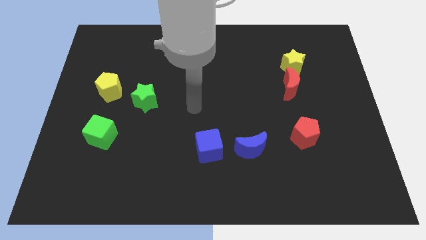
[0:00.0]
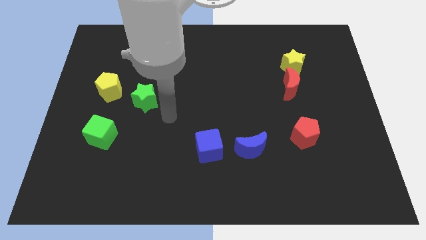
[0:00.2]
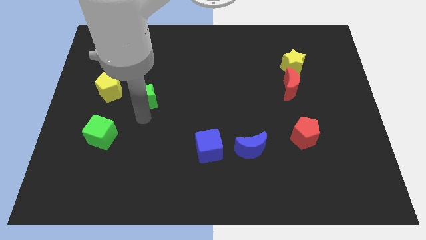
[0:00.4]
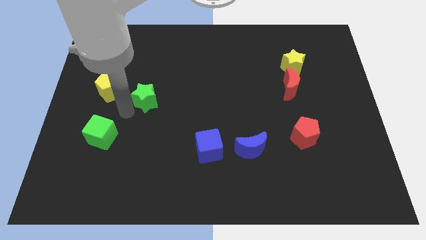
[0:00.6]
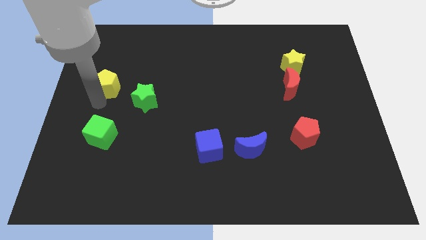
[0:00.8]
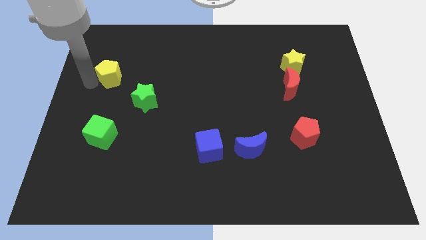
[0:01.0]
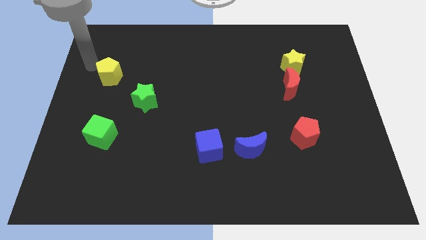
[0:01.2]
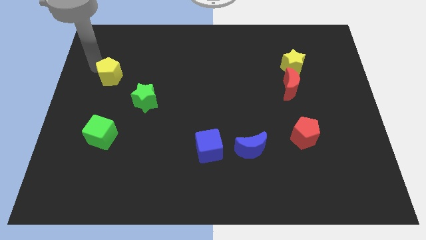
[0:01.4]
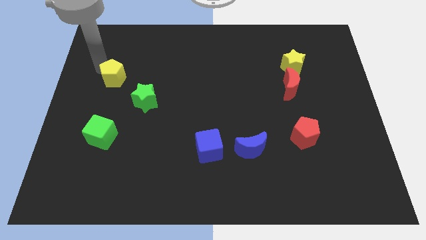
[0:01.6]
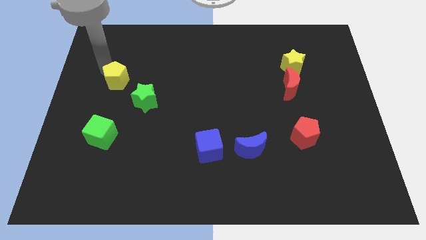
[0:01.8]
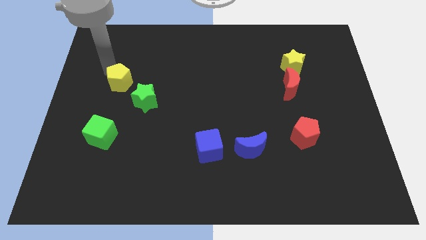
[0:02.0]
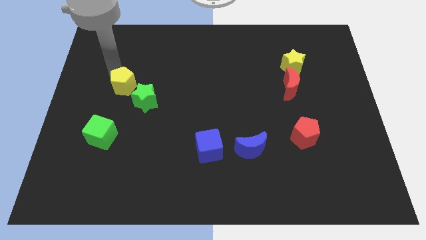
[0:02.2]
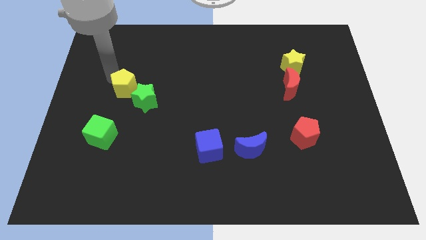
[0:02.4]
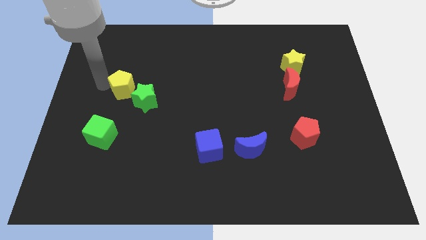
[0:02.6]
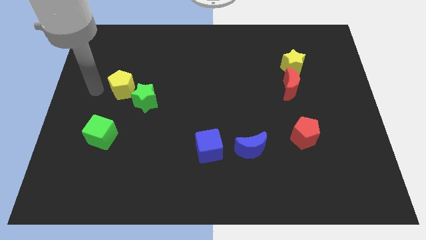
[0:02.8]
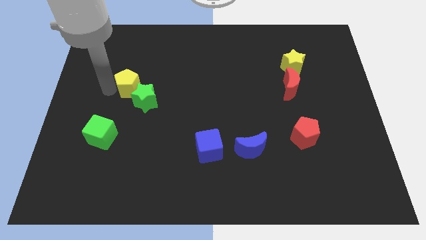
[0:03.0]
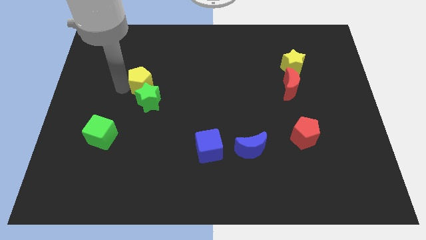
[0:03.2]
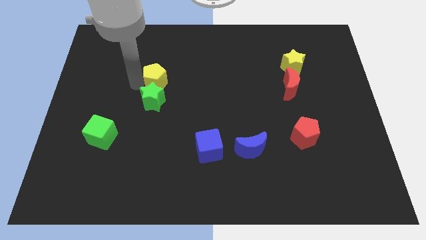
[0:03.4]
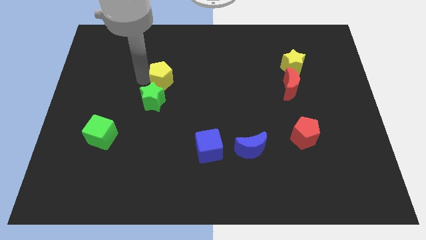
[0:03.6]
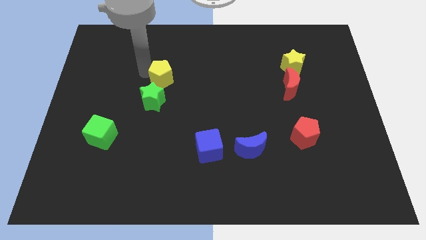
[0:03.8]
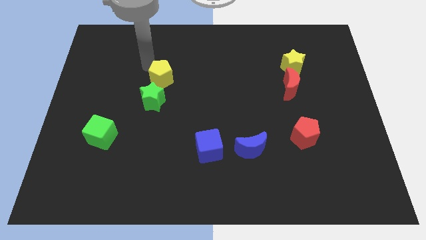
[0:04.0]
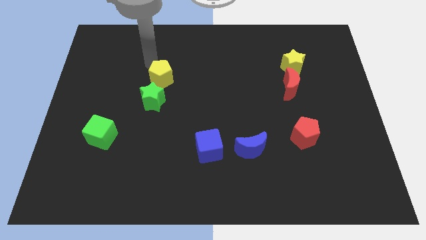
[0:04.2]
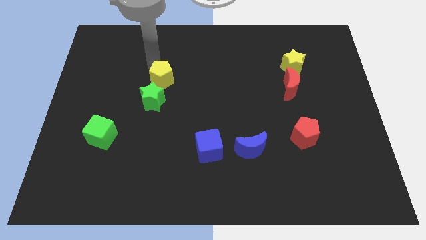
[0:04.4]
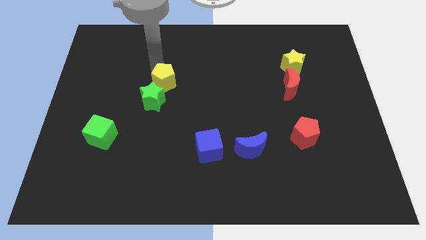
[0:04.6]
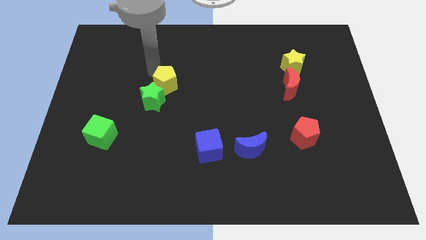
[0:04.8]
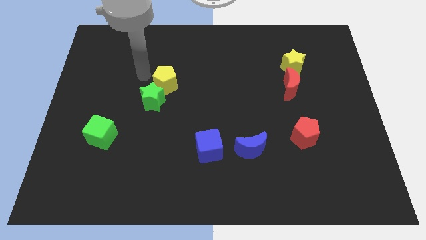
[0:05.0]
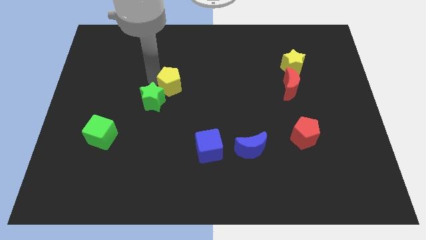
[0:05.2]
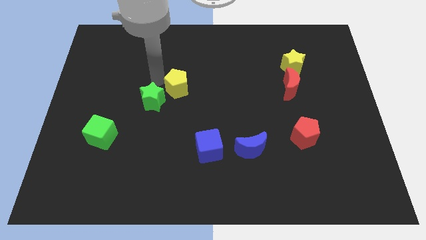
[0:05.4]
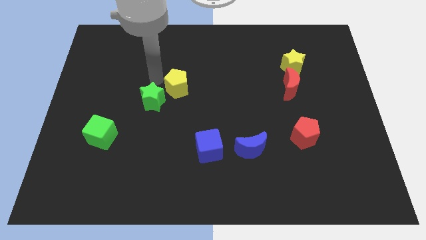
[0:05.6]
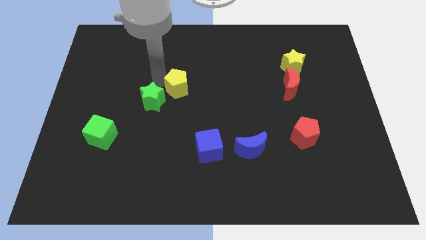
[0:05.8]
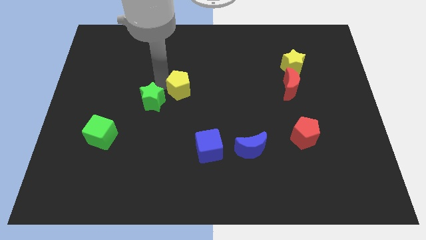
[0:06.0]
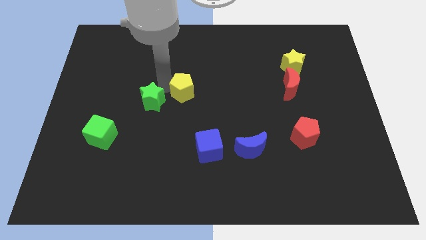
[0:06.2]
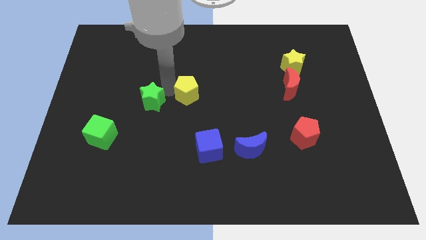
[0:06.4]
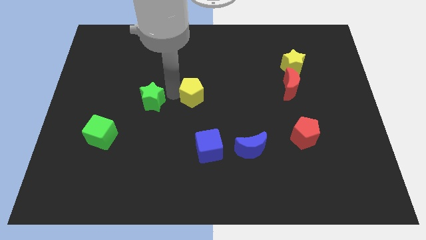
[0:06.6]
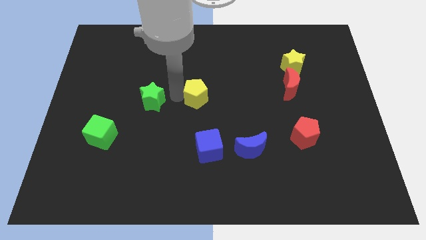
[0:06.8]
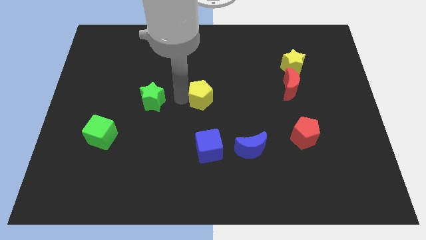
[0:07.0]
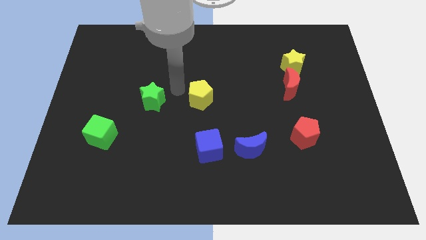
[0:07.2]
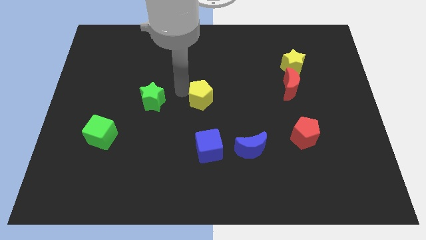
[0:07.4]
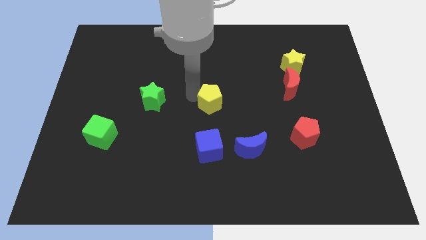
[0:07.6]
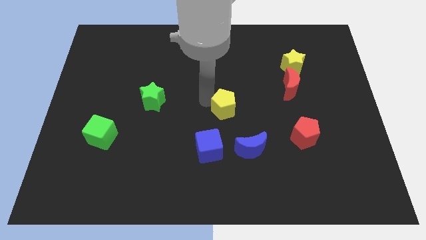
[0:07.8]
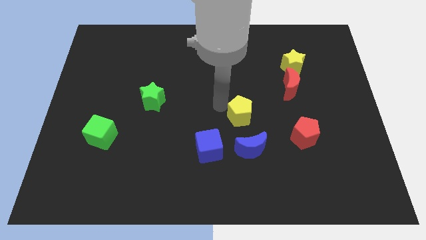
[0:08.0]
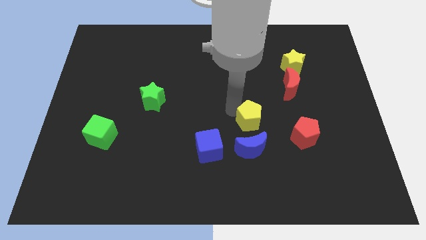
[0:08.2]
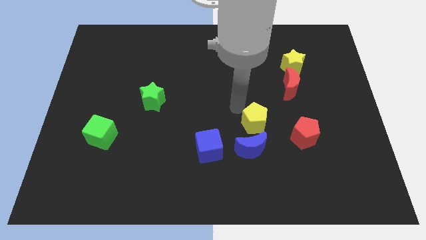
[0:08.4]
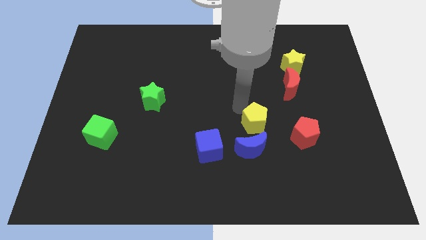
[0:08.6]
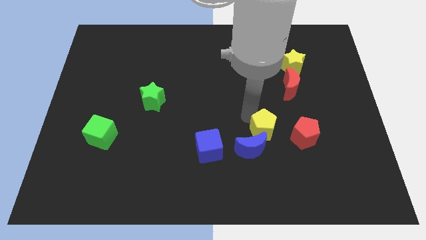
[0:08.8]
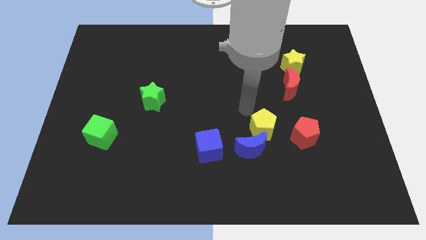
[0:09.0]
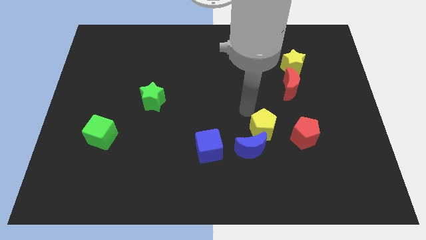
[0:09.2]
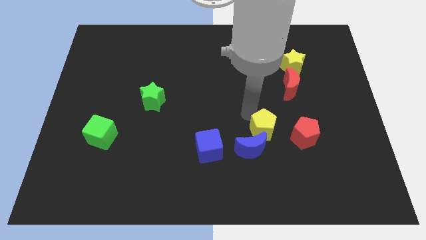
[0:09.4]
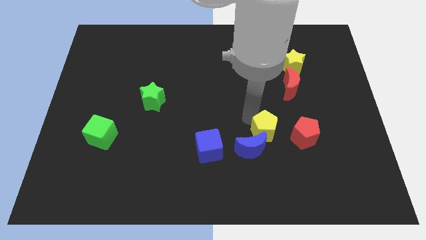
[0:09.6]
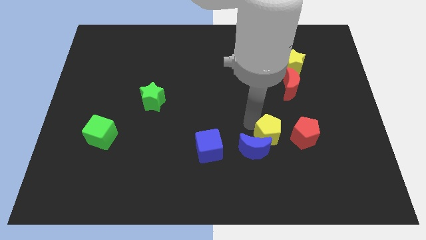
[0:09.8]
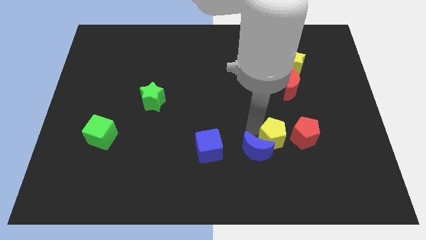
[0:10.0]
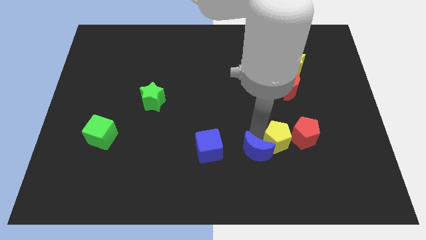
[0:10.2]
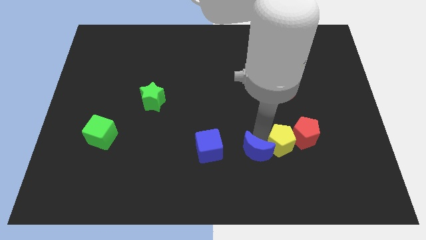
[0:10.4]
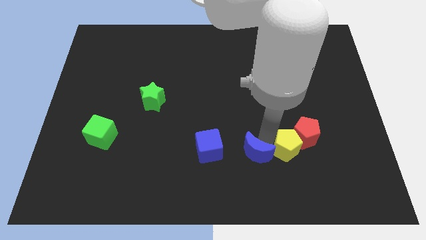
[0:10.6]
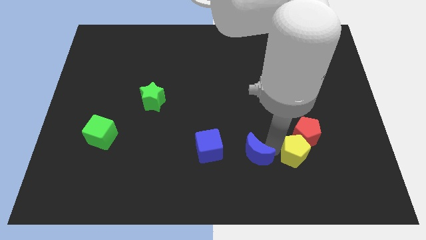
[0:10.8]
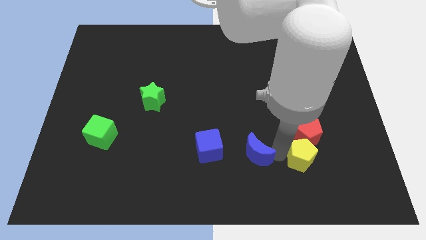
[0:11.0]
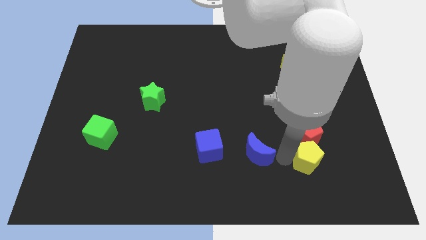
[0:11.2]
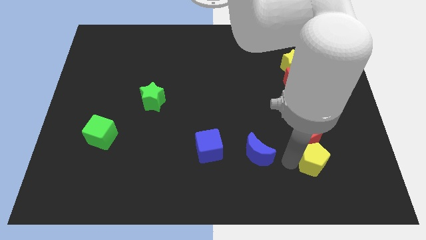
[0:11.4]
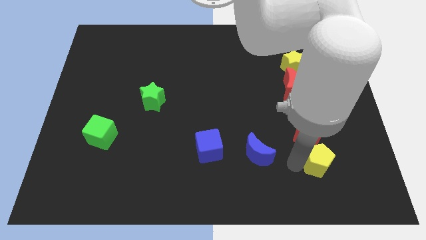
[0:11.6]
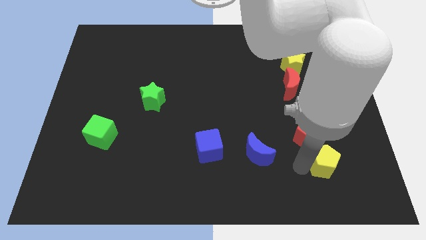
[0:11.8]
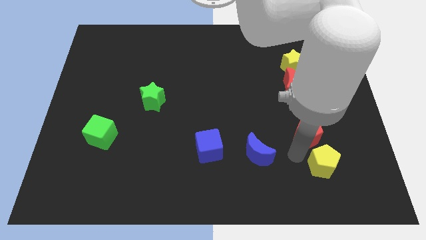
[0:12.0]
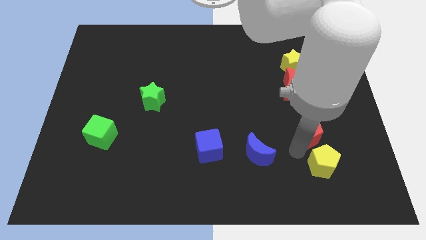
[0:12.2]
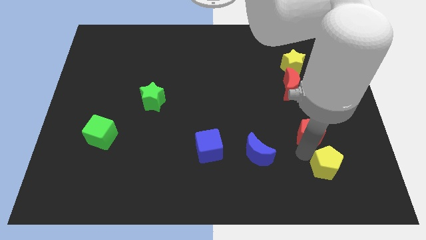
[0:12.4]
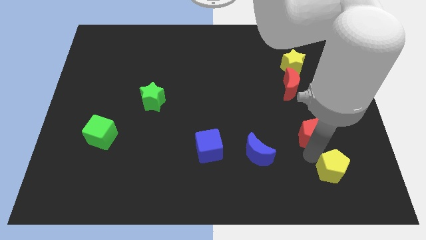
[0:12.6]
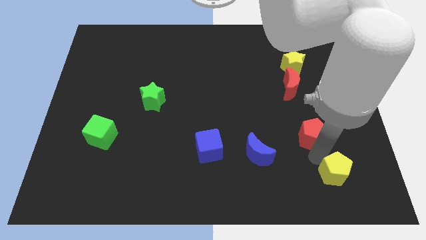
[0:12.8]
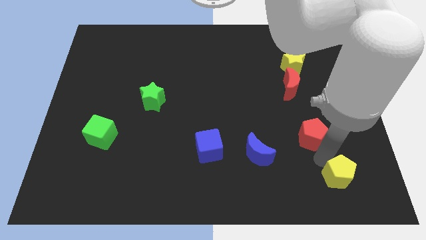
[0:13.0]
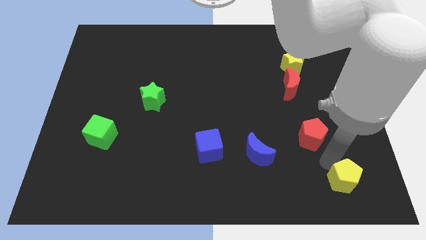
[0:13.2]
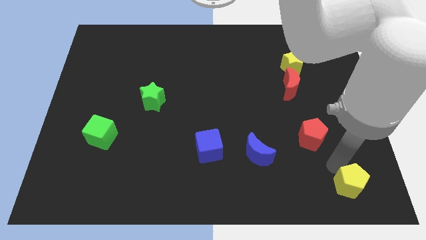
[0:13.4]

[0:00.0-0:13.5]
move the yellow pentagon to the bottom right of the board
